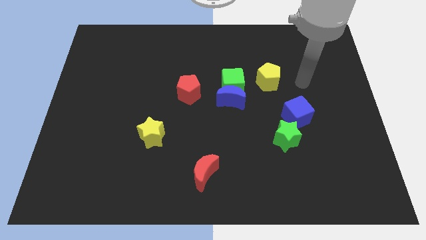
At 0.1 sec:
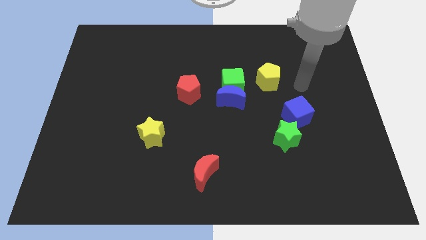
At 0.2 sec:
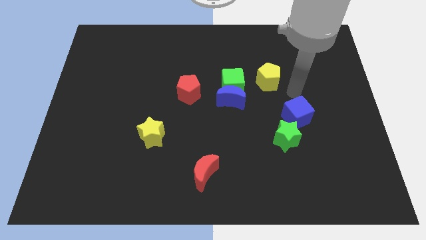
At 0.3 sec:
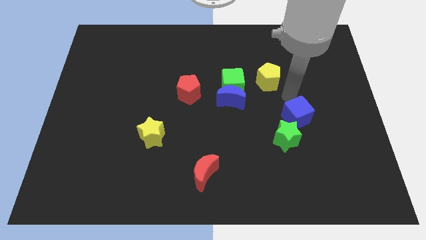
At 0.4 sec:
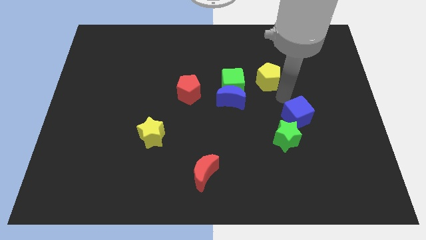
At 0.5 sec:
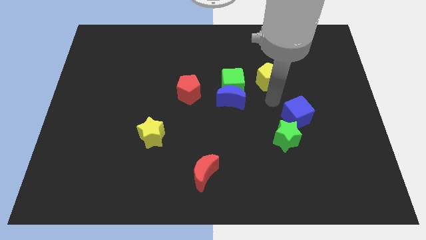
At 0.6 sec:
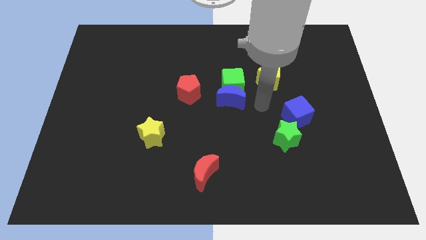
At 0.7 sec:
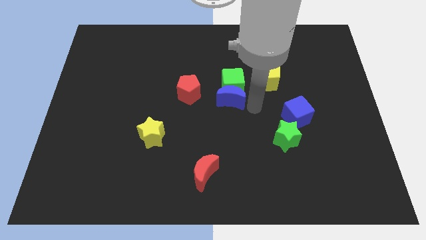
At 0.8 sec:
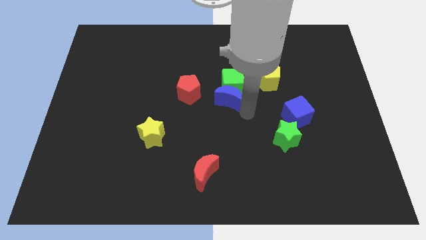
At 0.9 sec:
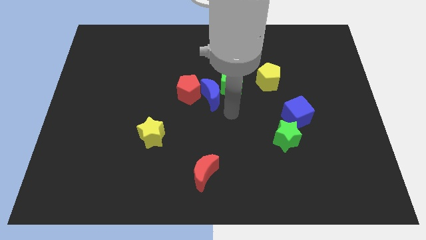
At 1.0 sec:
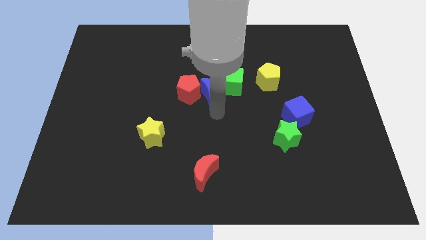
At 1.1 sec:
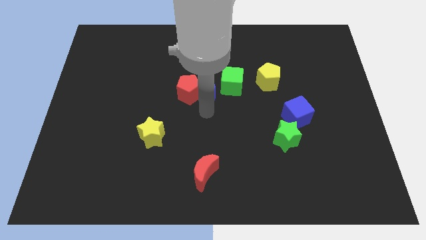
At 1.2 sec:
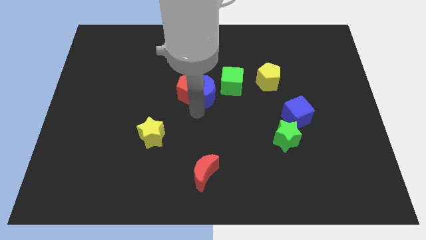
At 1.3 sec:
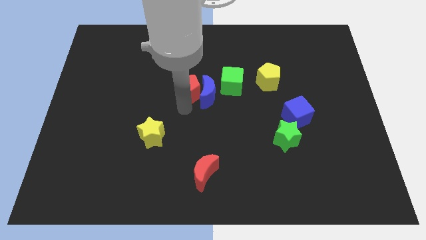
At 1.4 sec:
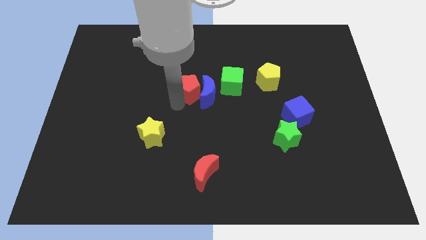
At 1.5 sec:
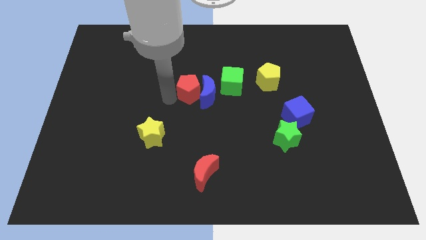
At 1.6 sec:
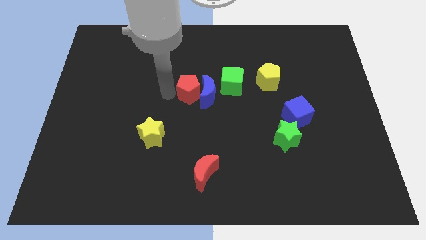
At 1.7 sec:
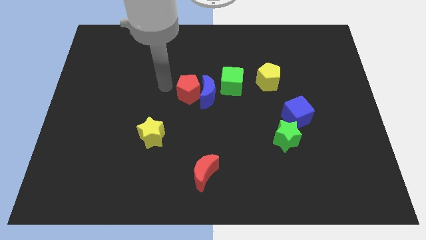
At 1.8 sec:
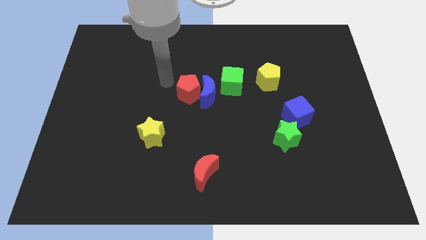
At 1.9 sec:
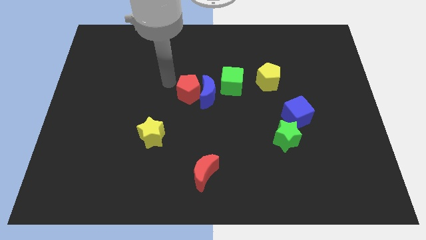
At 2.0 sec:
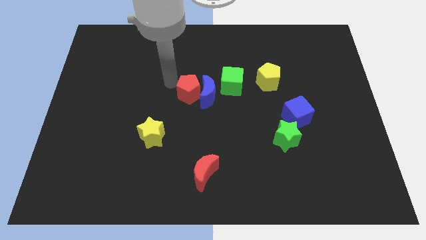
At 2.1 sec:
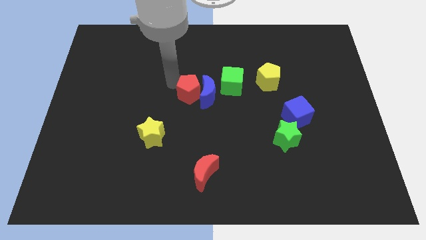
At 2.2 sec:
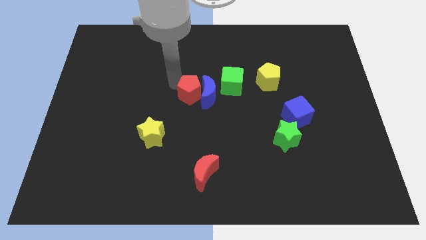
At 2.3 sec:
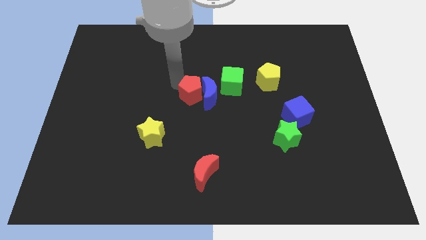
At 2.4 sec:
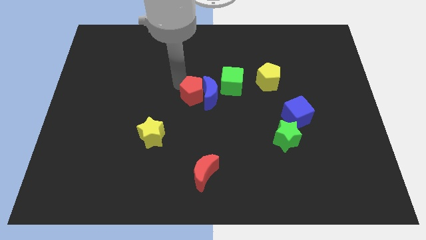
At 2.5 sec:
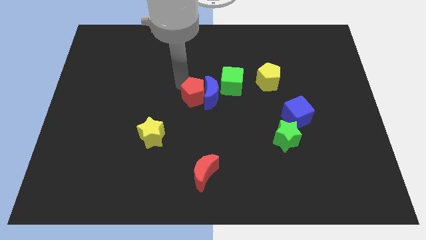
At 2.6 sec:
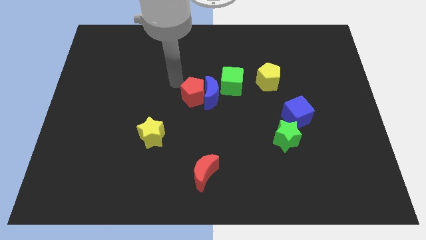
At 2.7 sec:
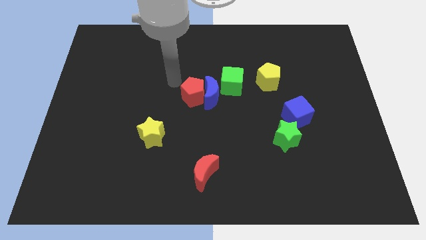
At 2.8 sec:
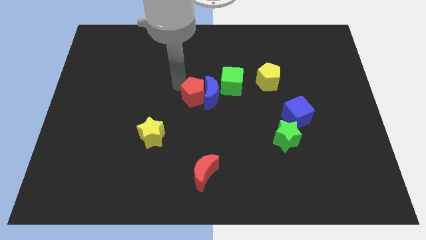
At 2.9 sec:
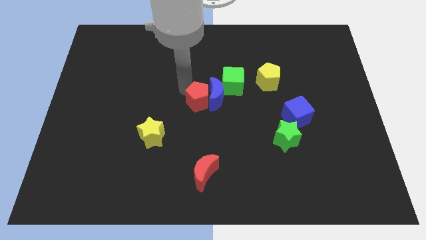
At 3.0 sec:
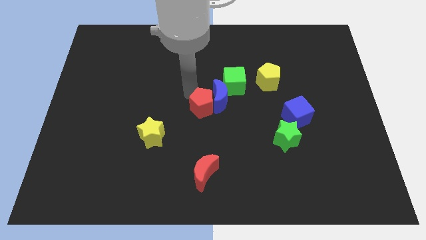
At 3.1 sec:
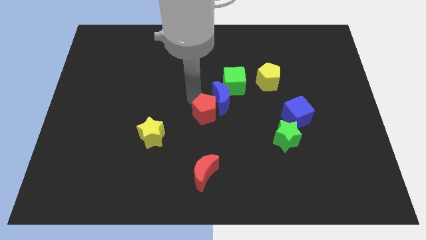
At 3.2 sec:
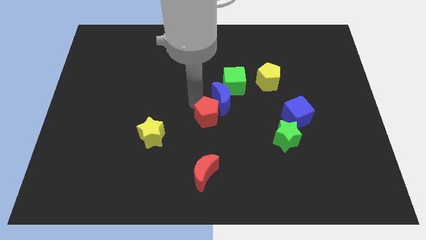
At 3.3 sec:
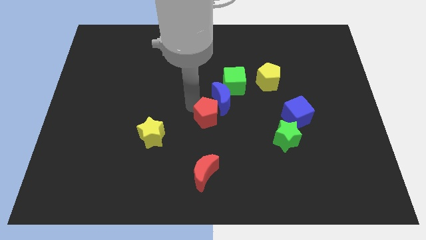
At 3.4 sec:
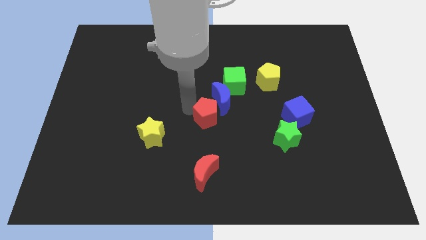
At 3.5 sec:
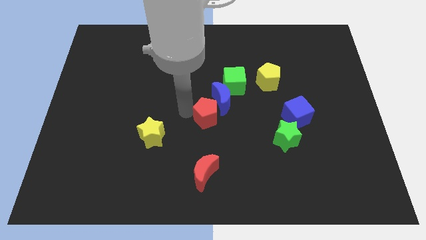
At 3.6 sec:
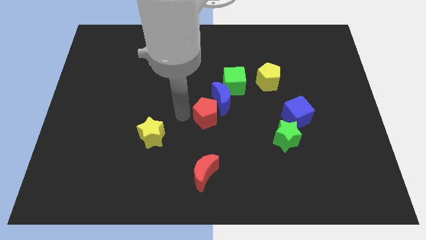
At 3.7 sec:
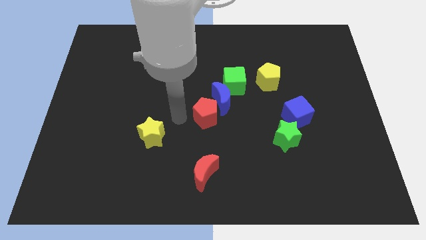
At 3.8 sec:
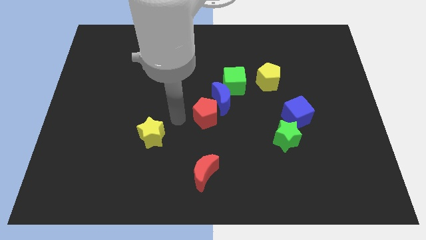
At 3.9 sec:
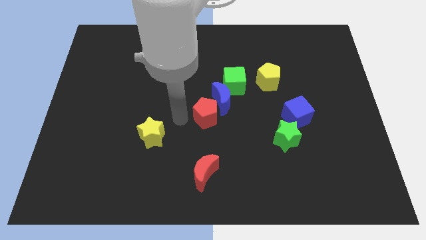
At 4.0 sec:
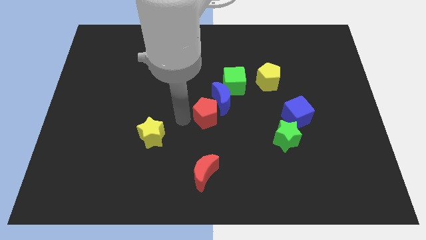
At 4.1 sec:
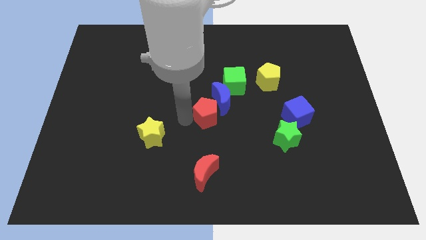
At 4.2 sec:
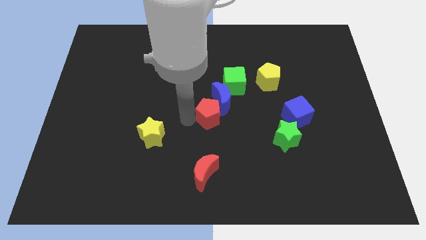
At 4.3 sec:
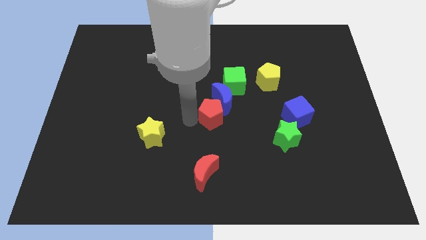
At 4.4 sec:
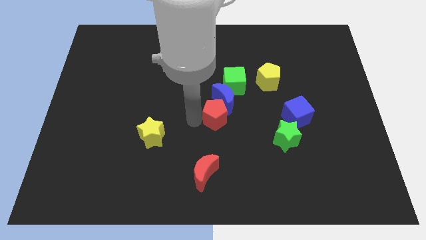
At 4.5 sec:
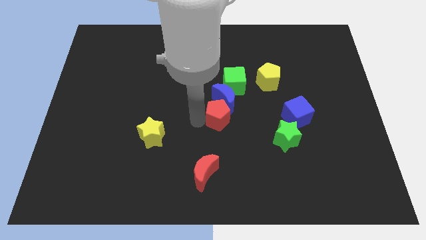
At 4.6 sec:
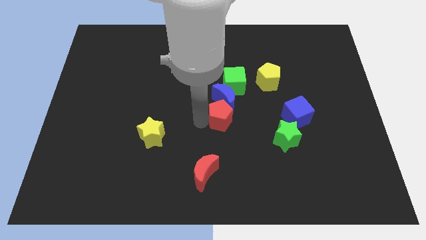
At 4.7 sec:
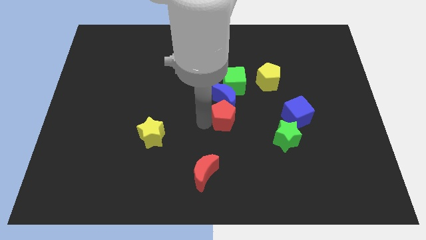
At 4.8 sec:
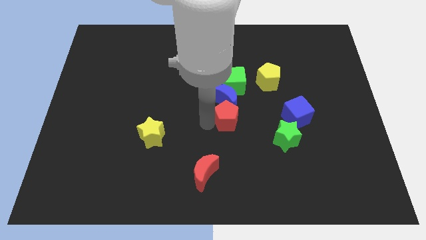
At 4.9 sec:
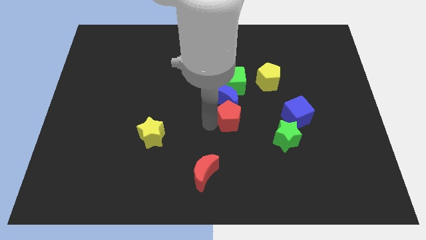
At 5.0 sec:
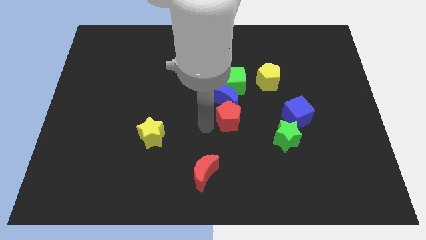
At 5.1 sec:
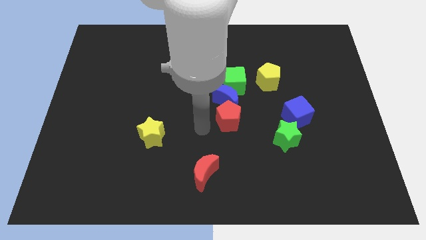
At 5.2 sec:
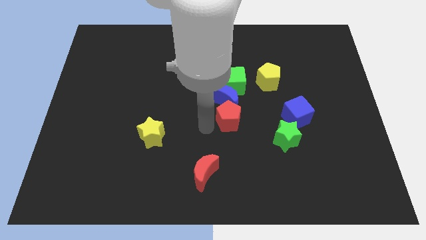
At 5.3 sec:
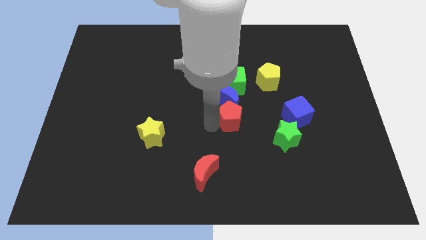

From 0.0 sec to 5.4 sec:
slide the red pentagon a little bit right

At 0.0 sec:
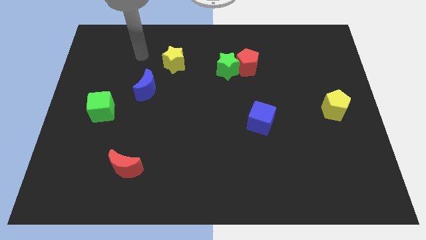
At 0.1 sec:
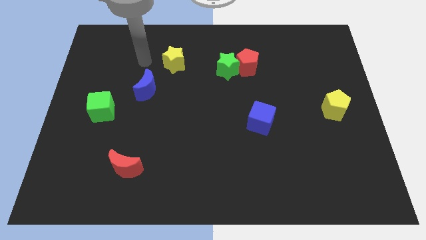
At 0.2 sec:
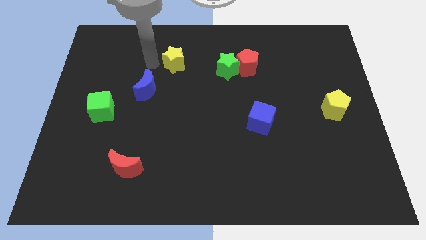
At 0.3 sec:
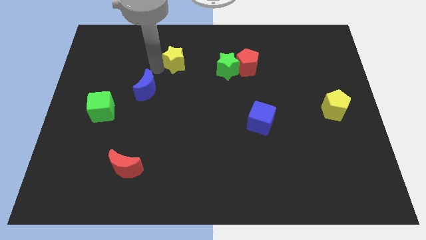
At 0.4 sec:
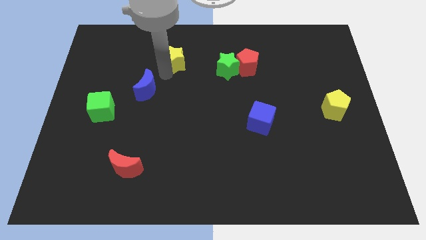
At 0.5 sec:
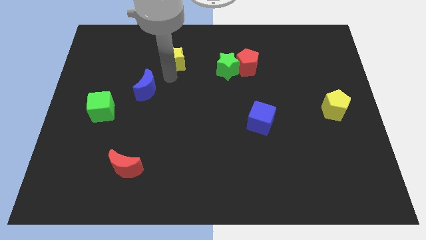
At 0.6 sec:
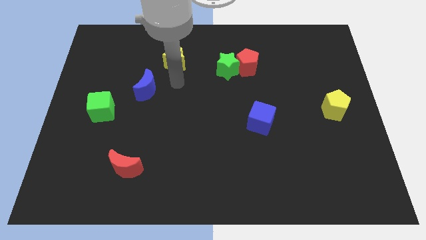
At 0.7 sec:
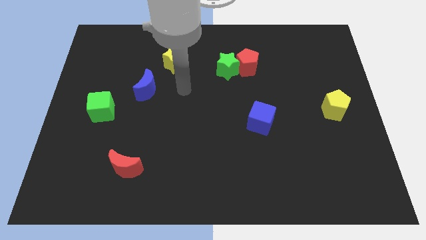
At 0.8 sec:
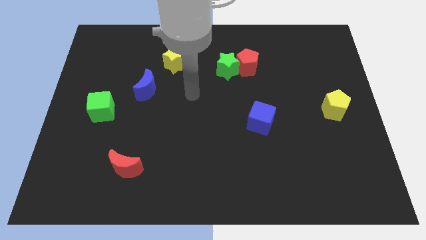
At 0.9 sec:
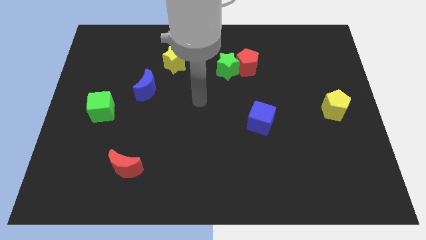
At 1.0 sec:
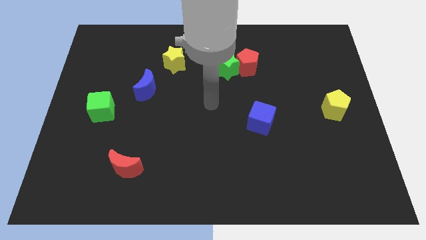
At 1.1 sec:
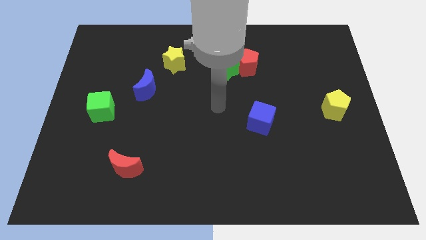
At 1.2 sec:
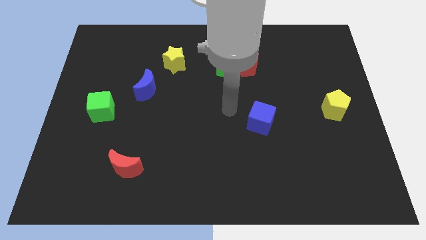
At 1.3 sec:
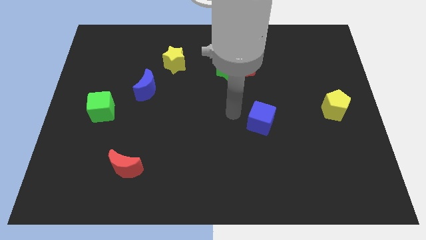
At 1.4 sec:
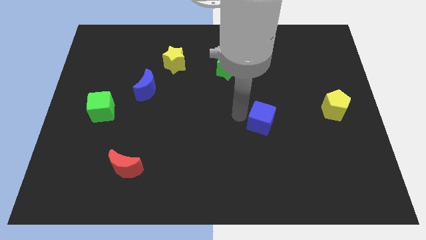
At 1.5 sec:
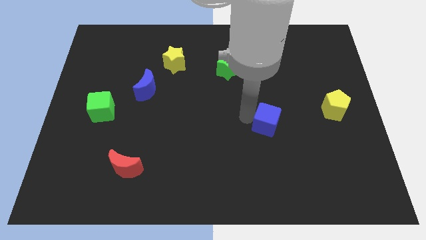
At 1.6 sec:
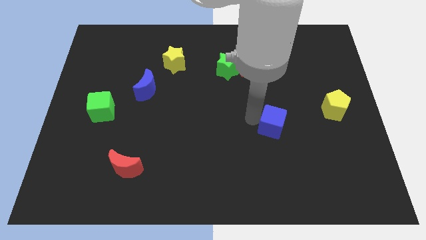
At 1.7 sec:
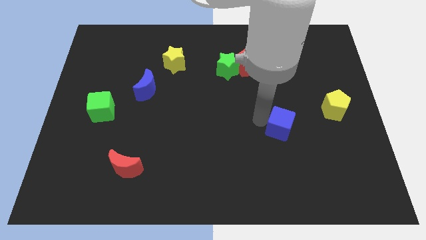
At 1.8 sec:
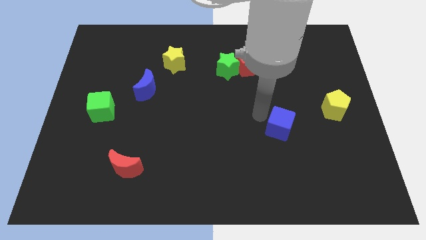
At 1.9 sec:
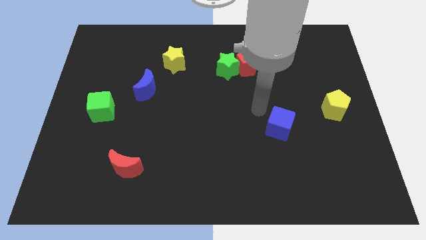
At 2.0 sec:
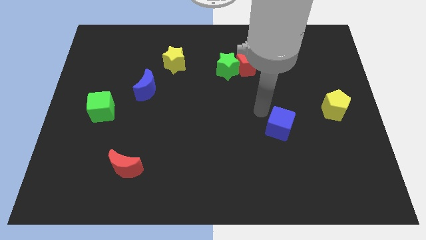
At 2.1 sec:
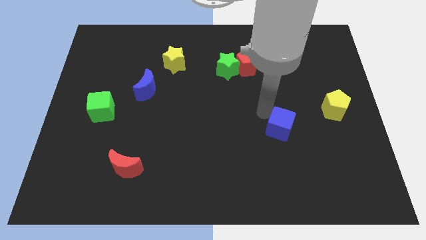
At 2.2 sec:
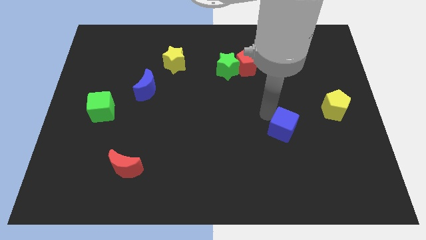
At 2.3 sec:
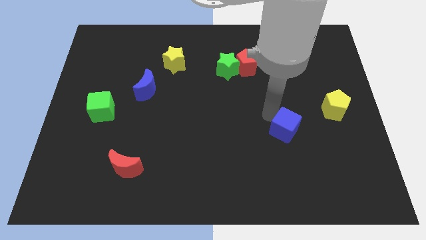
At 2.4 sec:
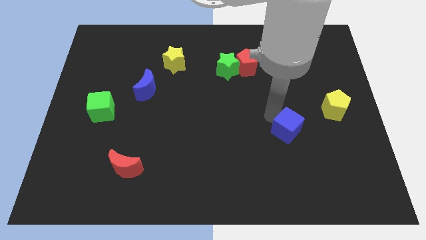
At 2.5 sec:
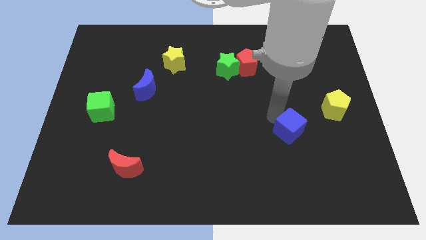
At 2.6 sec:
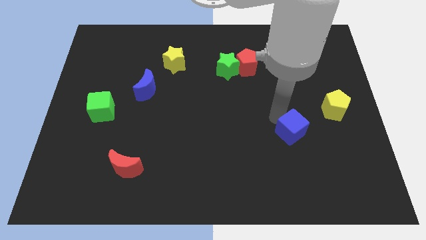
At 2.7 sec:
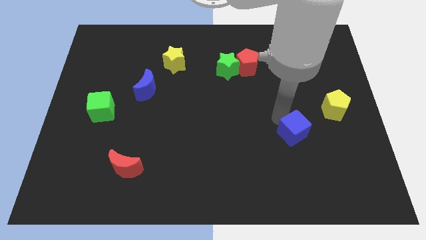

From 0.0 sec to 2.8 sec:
slightly move the blue cube down and to the right diagonally
